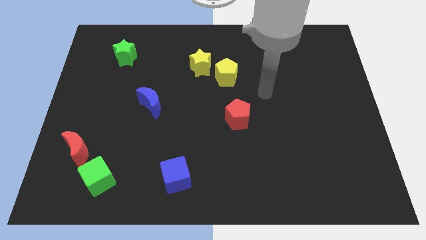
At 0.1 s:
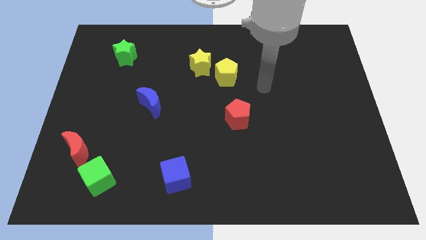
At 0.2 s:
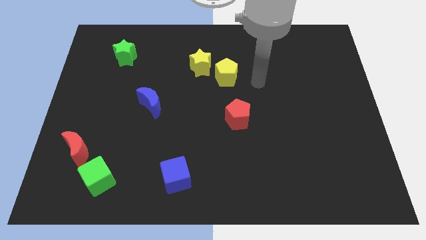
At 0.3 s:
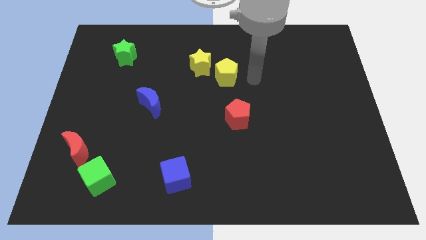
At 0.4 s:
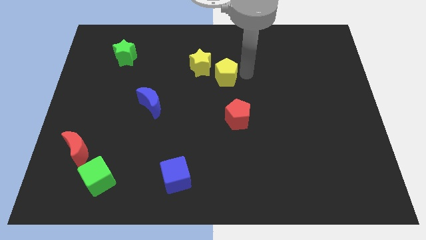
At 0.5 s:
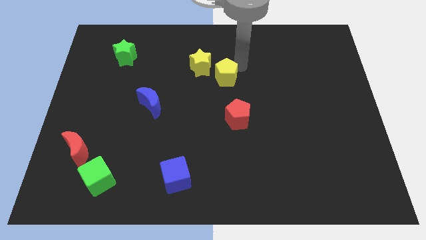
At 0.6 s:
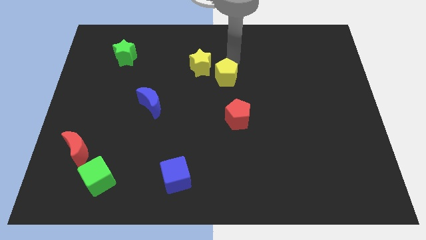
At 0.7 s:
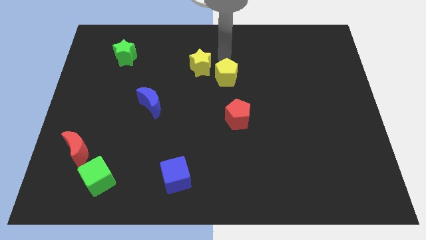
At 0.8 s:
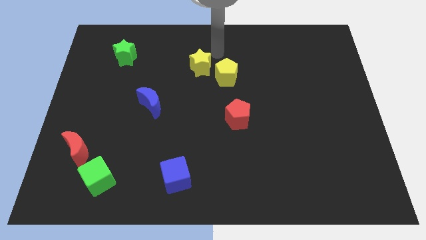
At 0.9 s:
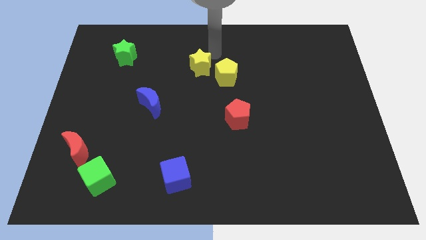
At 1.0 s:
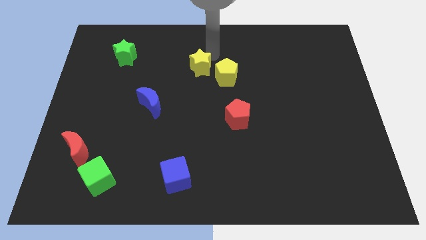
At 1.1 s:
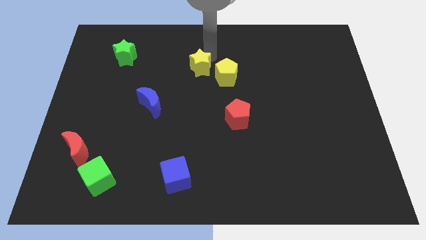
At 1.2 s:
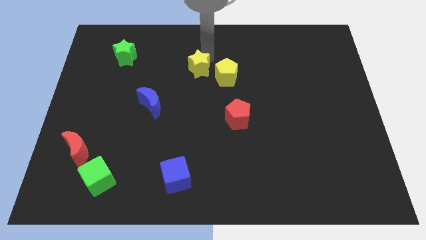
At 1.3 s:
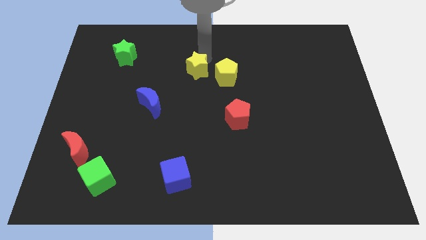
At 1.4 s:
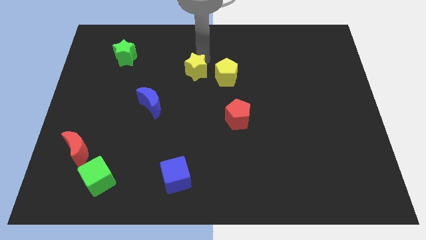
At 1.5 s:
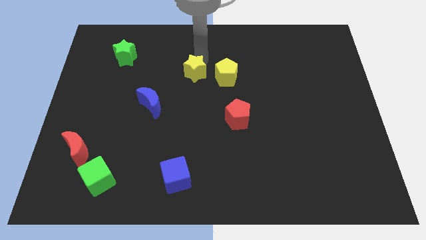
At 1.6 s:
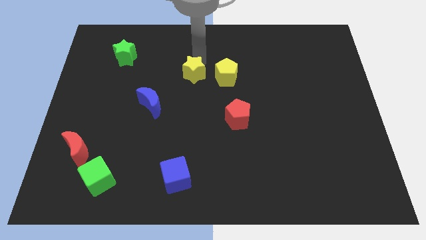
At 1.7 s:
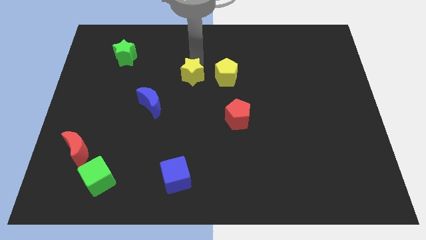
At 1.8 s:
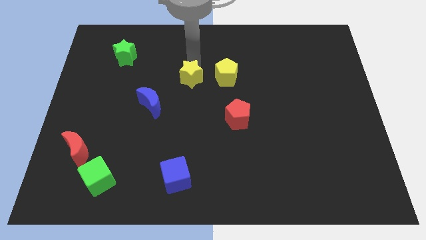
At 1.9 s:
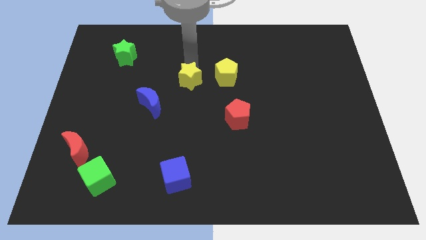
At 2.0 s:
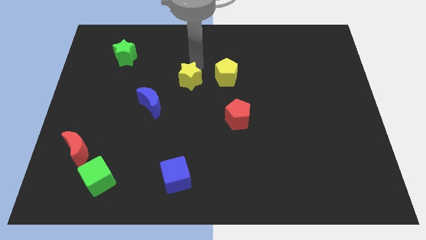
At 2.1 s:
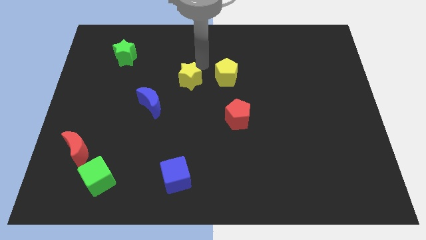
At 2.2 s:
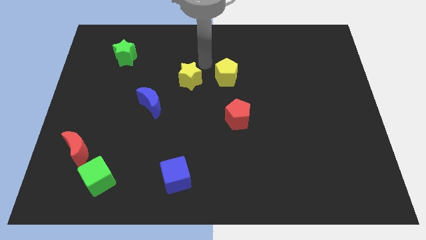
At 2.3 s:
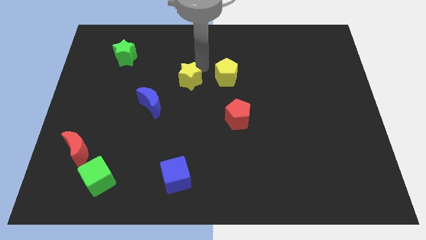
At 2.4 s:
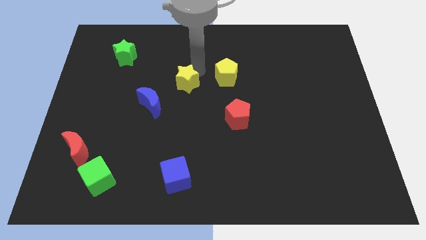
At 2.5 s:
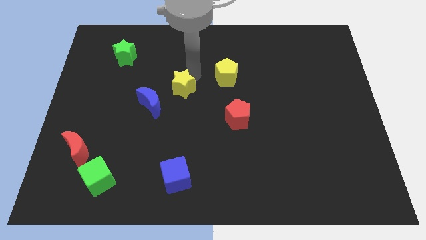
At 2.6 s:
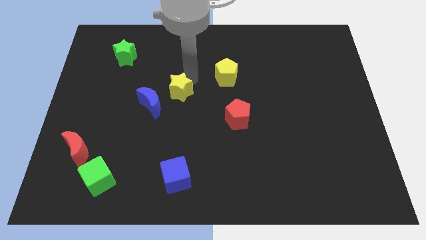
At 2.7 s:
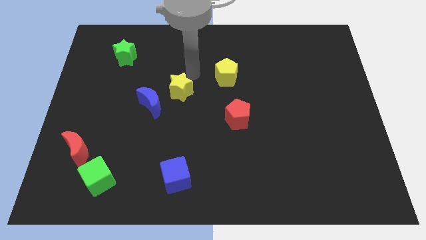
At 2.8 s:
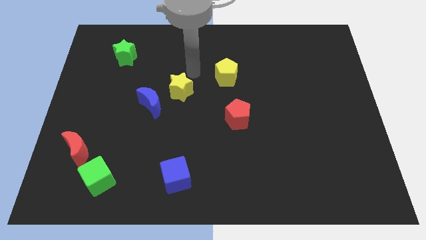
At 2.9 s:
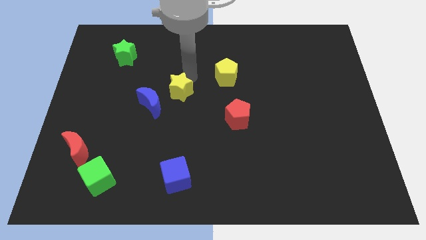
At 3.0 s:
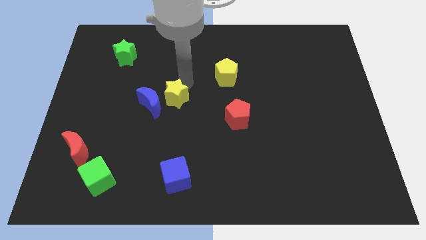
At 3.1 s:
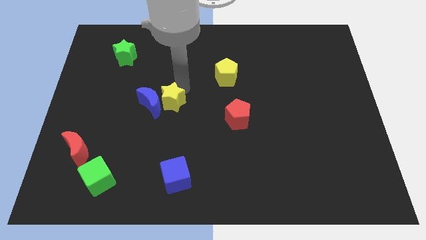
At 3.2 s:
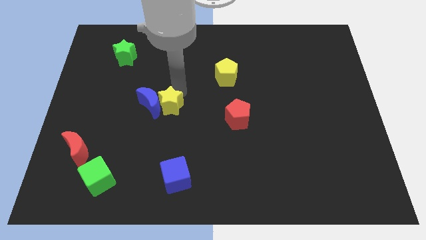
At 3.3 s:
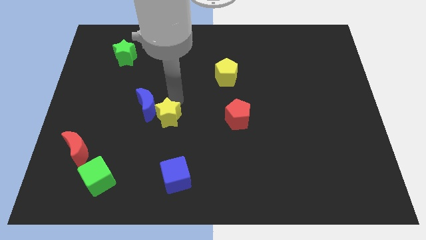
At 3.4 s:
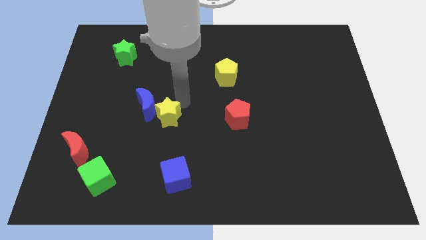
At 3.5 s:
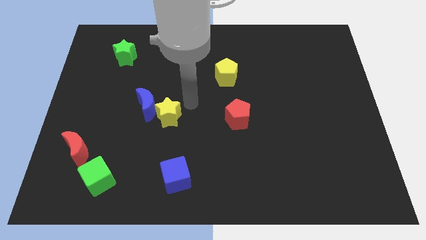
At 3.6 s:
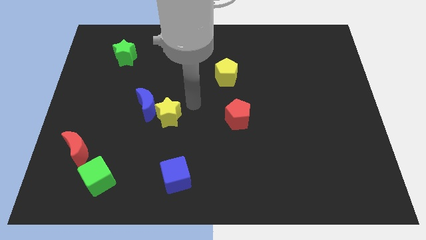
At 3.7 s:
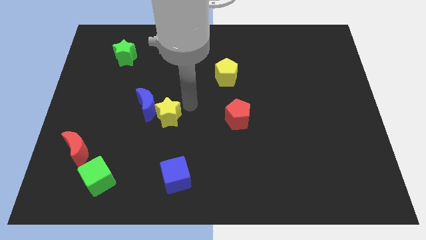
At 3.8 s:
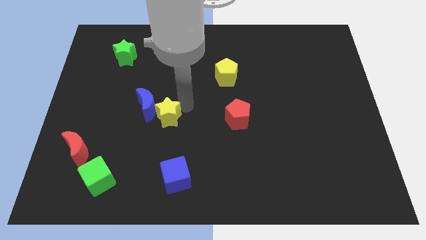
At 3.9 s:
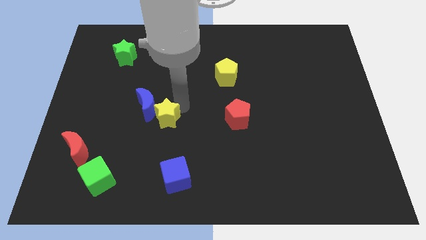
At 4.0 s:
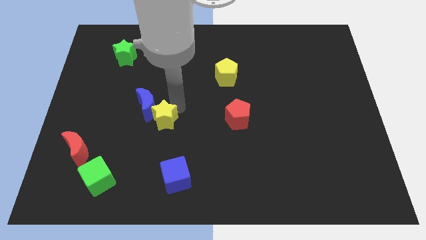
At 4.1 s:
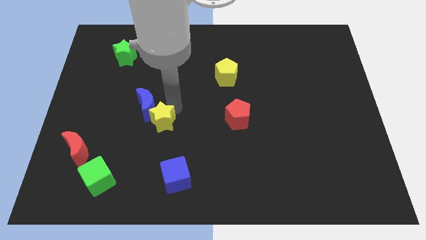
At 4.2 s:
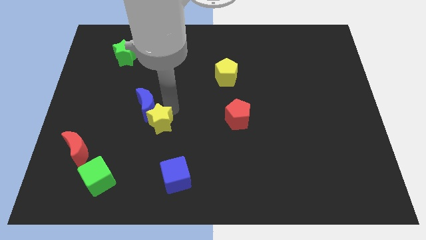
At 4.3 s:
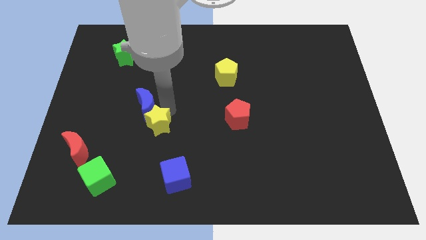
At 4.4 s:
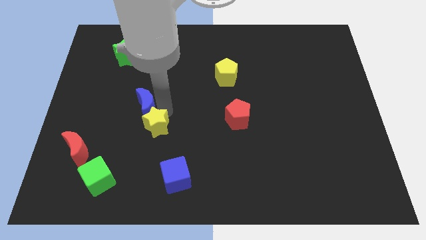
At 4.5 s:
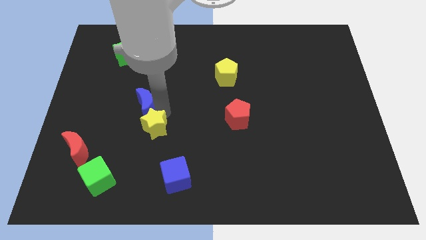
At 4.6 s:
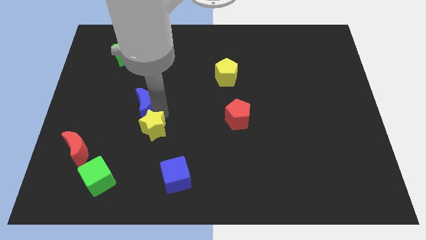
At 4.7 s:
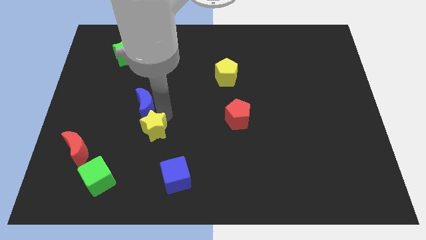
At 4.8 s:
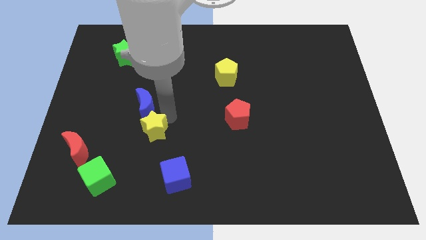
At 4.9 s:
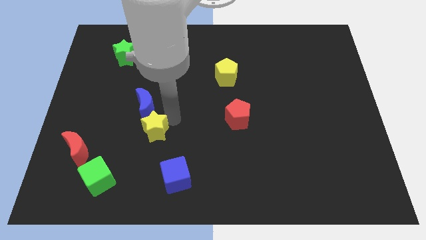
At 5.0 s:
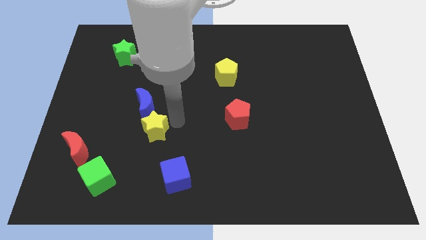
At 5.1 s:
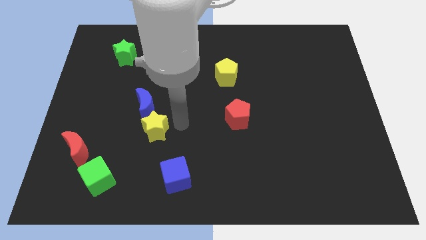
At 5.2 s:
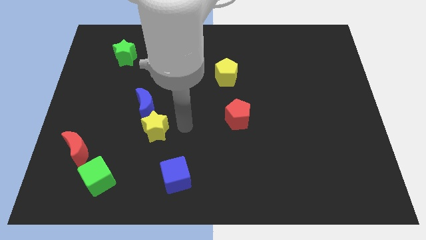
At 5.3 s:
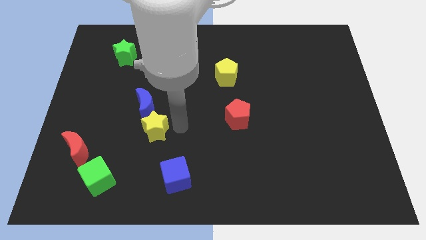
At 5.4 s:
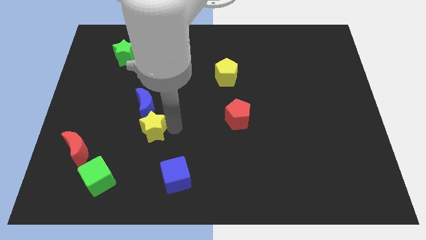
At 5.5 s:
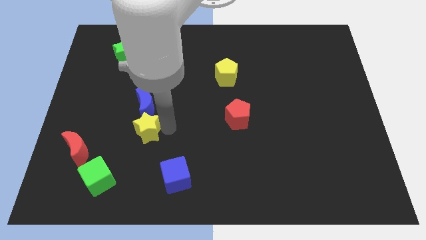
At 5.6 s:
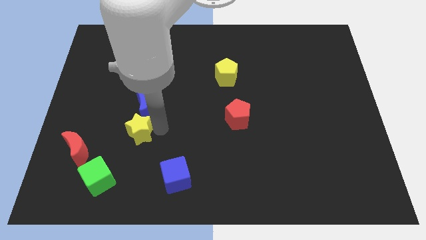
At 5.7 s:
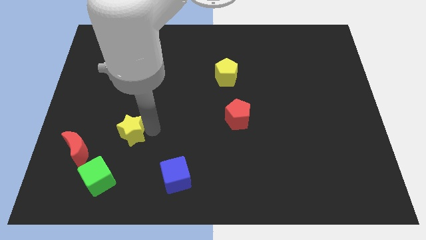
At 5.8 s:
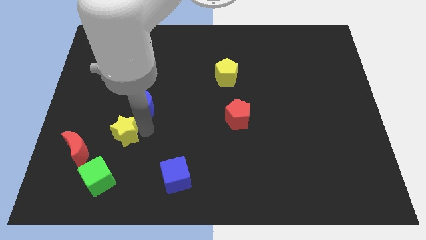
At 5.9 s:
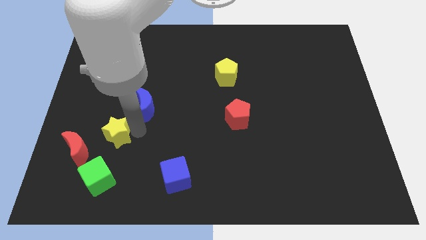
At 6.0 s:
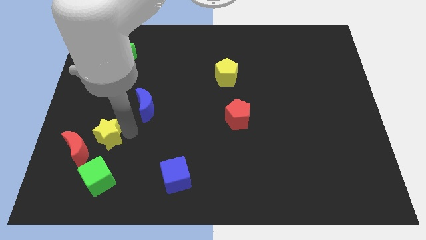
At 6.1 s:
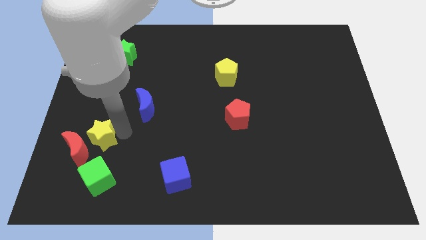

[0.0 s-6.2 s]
slide the yellow star towards the red moon

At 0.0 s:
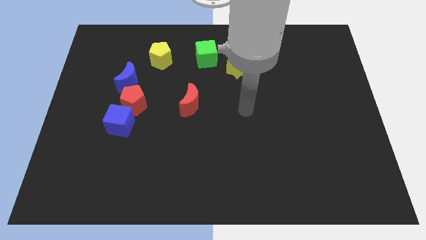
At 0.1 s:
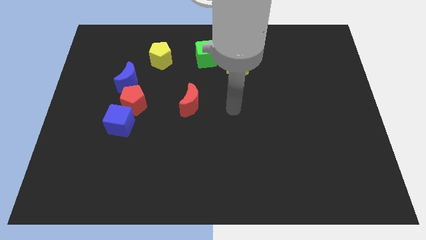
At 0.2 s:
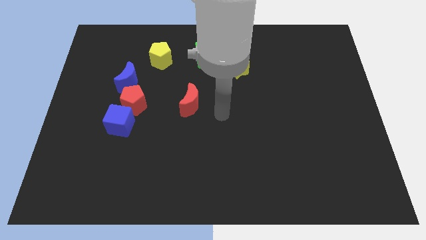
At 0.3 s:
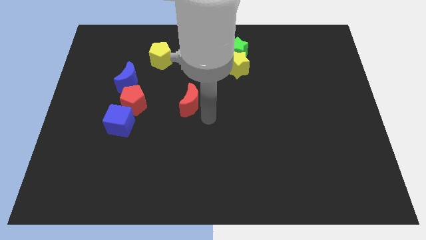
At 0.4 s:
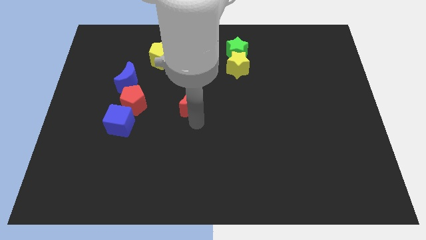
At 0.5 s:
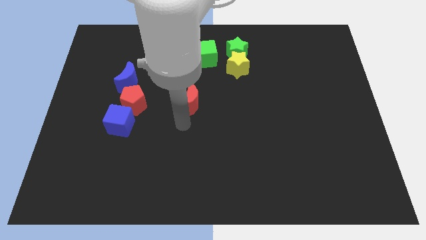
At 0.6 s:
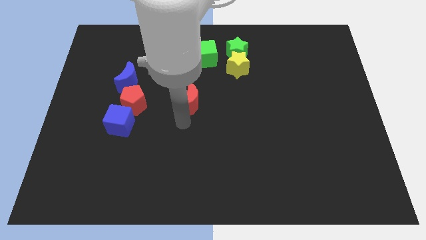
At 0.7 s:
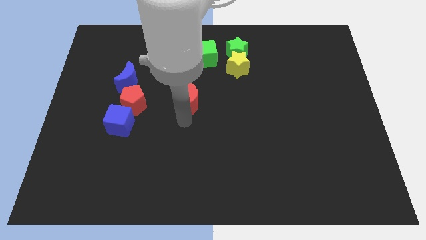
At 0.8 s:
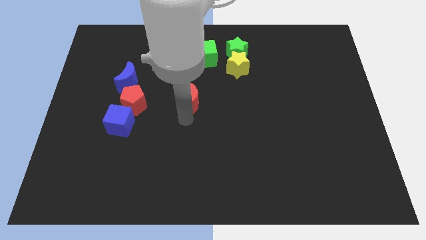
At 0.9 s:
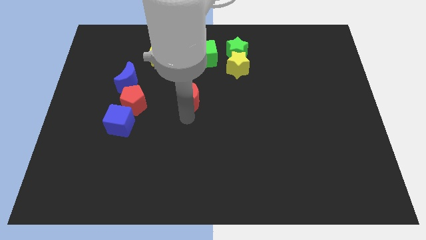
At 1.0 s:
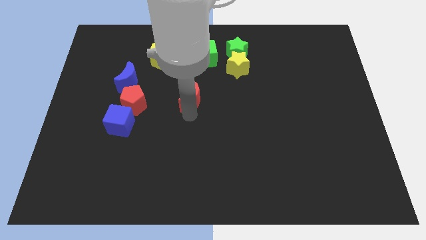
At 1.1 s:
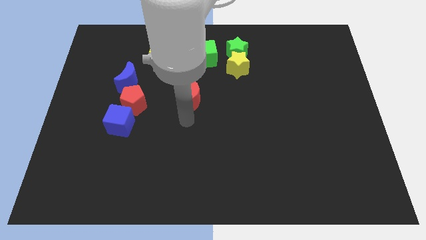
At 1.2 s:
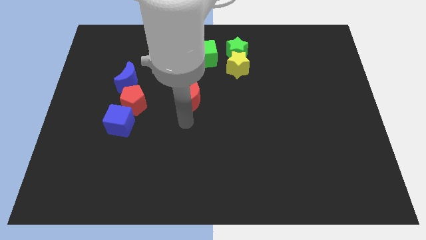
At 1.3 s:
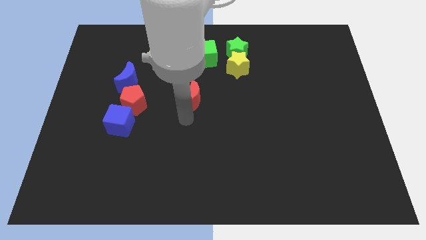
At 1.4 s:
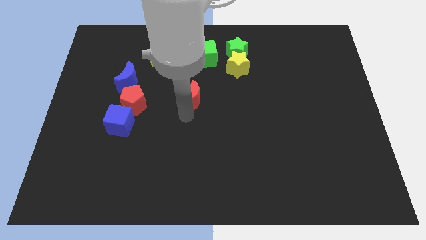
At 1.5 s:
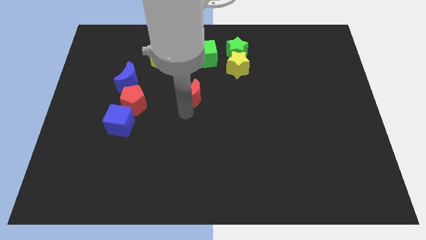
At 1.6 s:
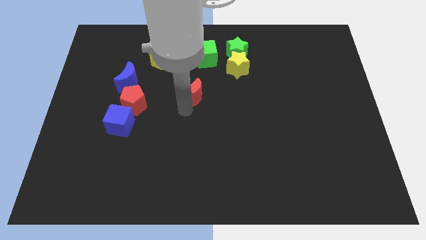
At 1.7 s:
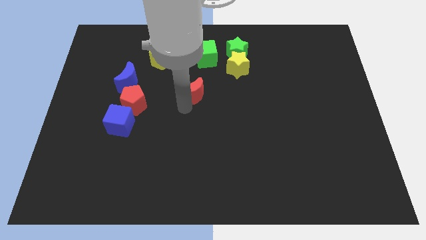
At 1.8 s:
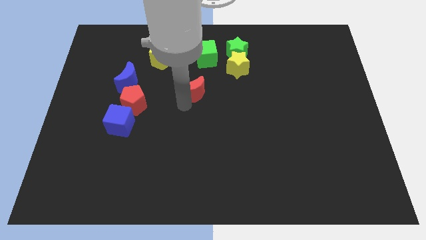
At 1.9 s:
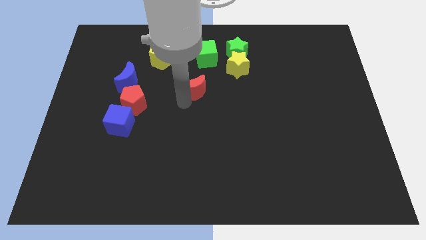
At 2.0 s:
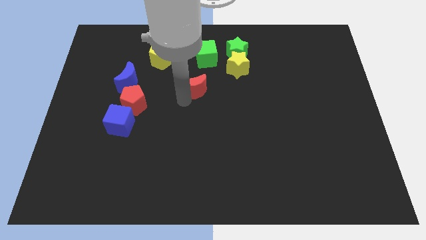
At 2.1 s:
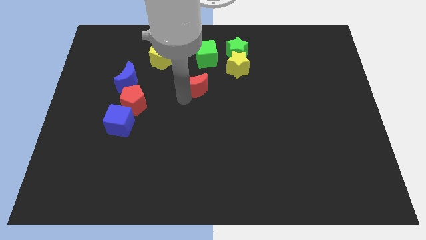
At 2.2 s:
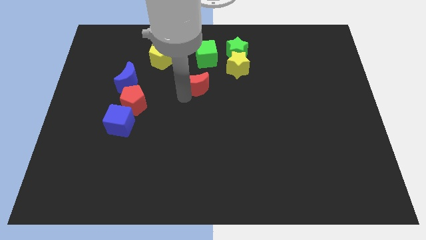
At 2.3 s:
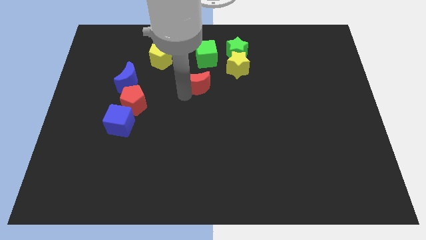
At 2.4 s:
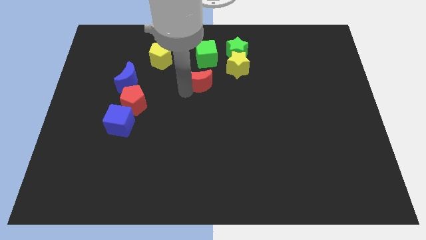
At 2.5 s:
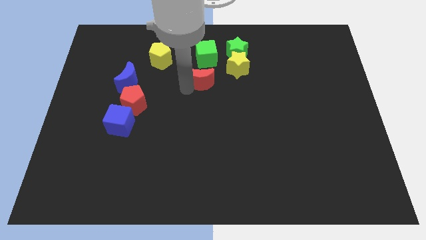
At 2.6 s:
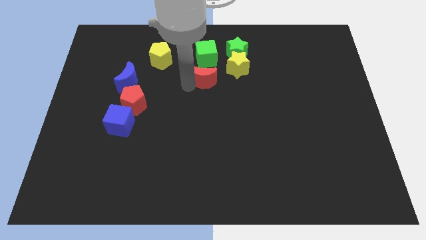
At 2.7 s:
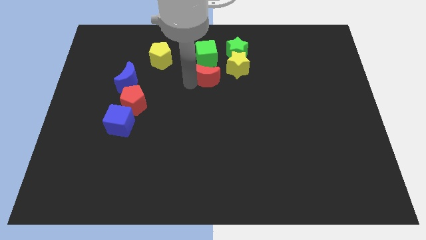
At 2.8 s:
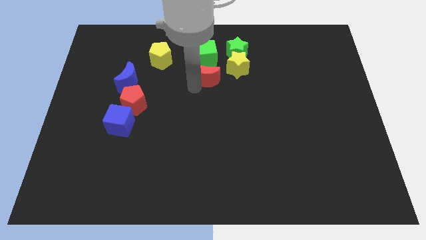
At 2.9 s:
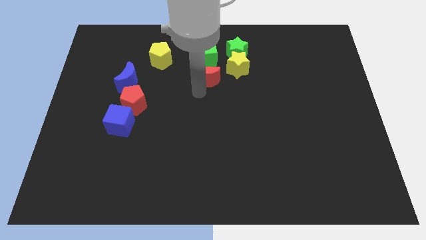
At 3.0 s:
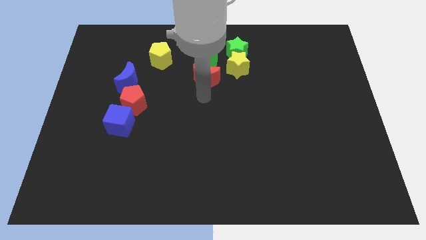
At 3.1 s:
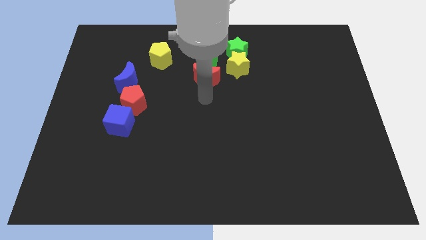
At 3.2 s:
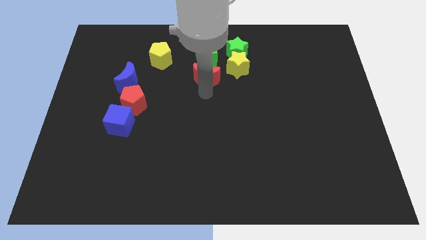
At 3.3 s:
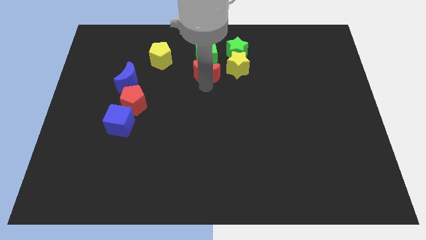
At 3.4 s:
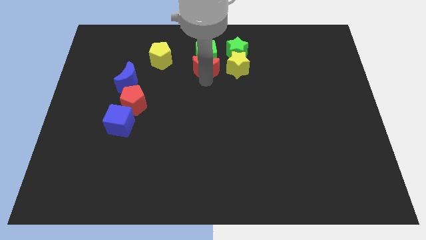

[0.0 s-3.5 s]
put the red moon to the green cube
